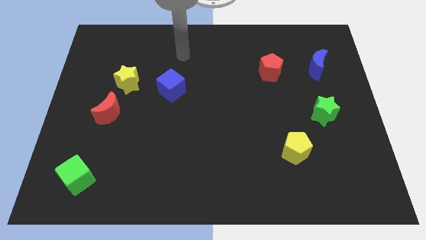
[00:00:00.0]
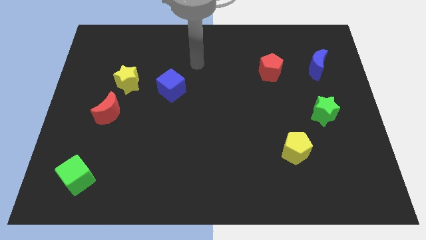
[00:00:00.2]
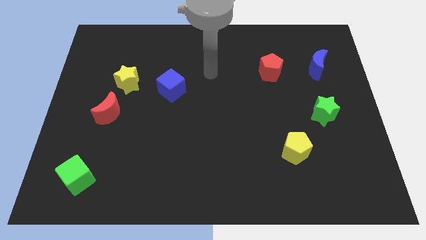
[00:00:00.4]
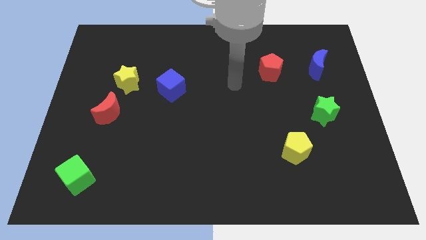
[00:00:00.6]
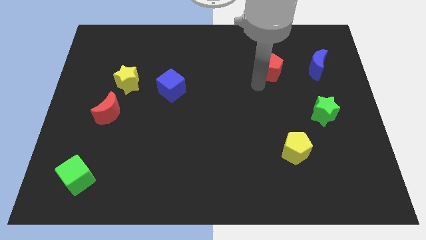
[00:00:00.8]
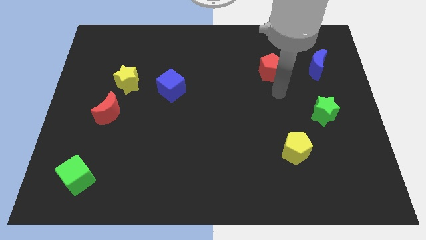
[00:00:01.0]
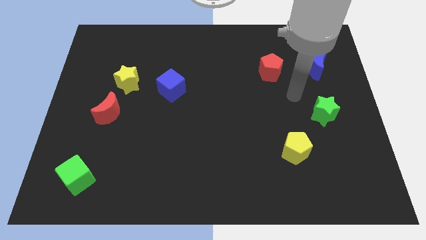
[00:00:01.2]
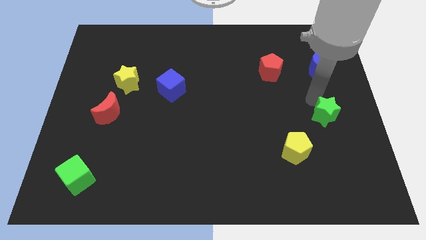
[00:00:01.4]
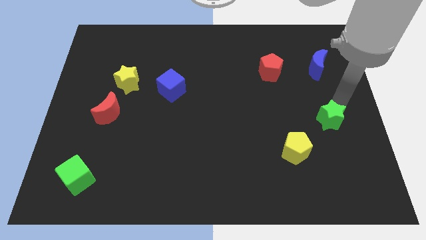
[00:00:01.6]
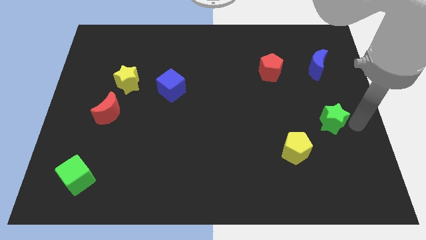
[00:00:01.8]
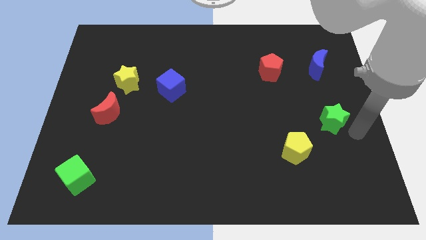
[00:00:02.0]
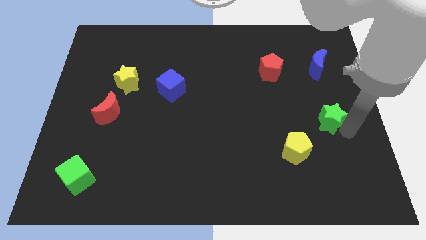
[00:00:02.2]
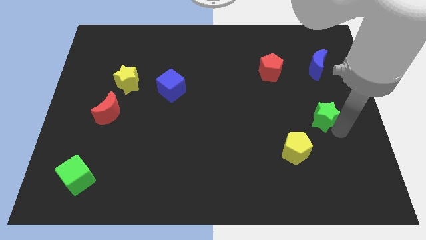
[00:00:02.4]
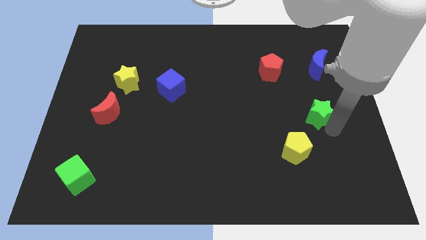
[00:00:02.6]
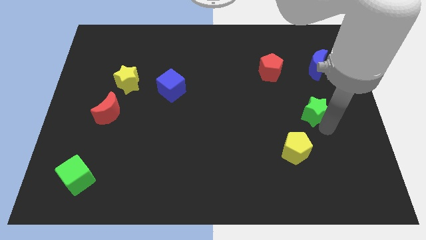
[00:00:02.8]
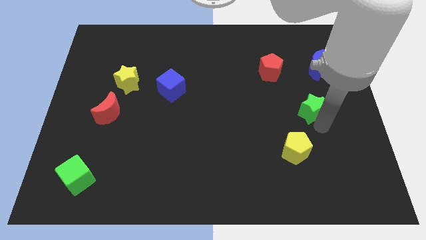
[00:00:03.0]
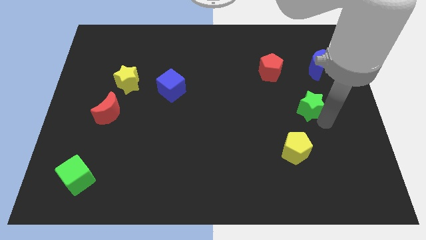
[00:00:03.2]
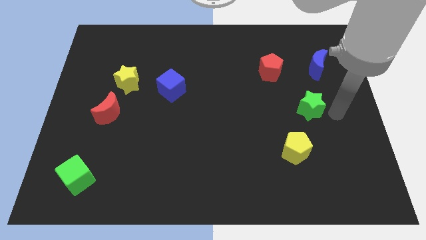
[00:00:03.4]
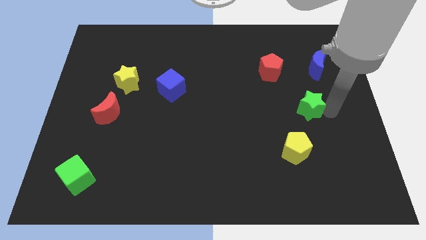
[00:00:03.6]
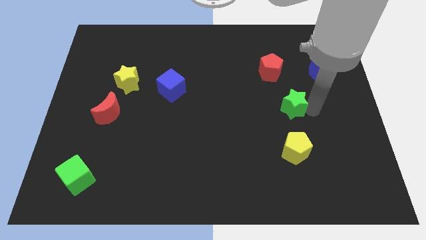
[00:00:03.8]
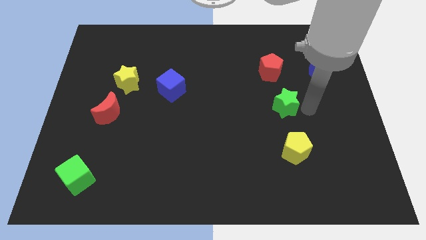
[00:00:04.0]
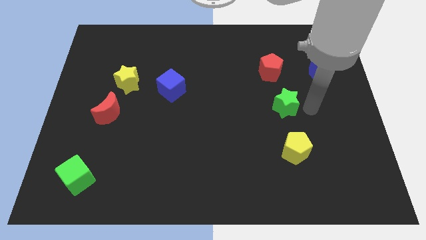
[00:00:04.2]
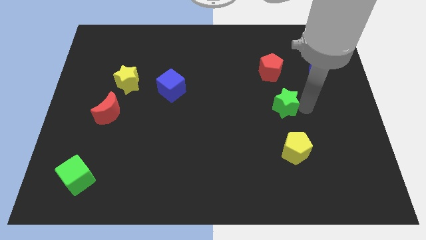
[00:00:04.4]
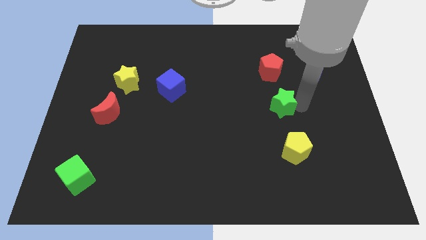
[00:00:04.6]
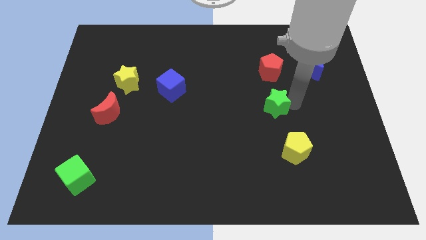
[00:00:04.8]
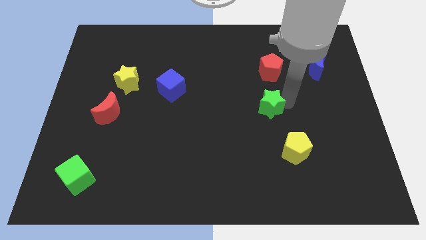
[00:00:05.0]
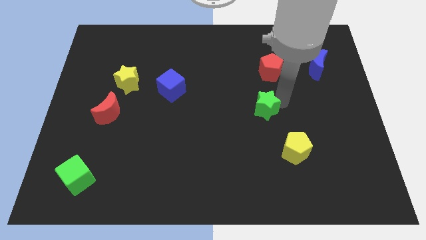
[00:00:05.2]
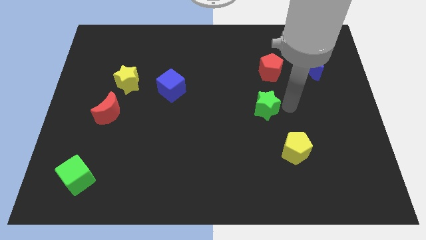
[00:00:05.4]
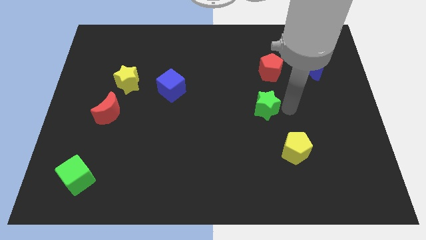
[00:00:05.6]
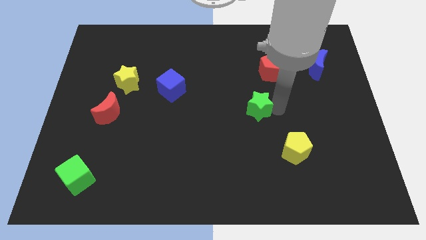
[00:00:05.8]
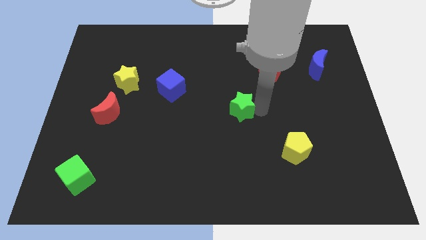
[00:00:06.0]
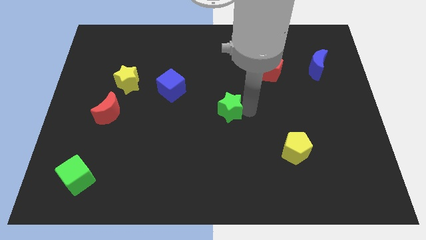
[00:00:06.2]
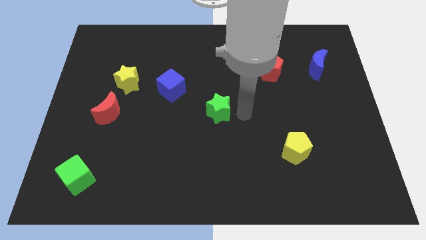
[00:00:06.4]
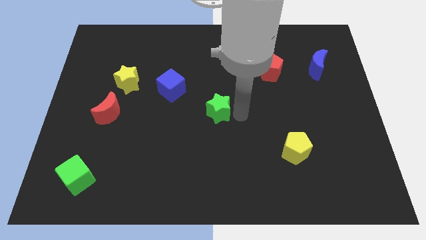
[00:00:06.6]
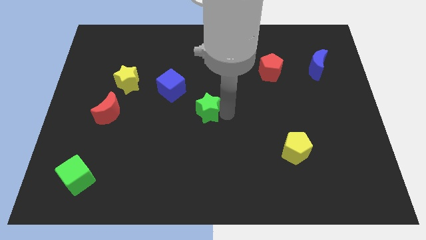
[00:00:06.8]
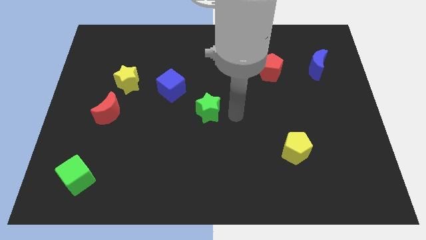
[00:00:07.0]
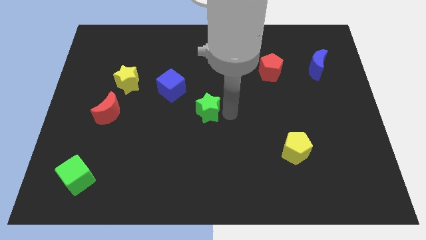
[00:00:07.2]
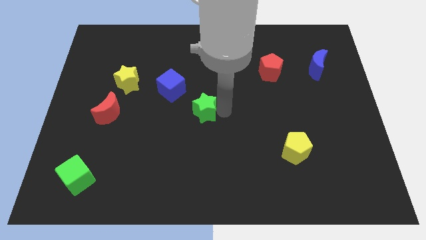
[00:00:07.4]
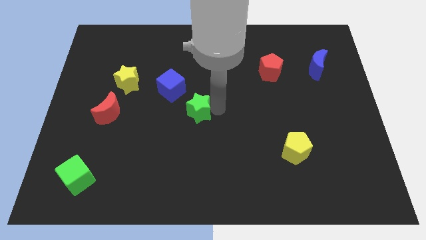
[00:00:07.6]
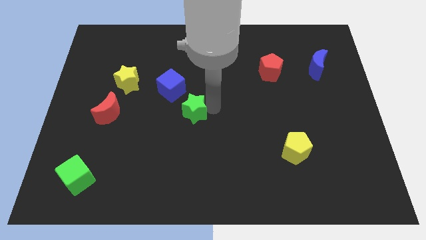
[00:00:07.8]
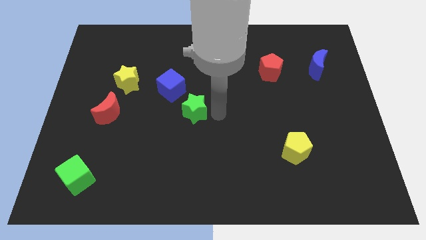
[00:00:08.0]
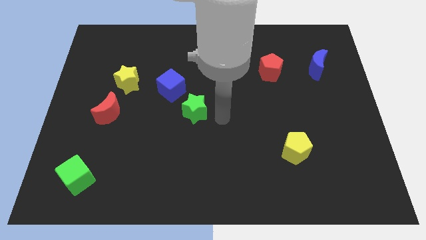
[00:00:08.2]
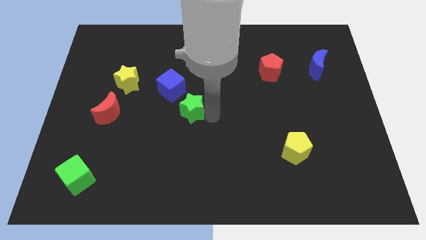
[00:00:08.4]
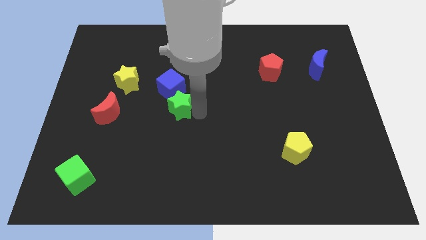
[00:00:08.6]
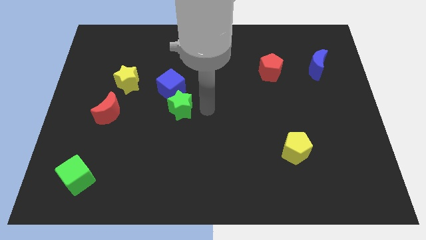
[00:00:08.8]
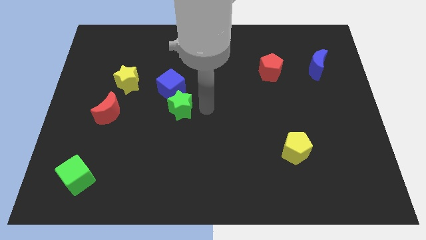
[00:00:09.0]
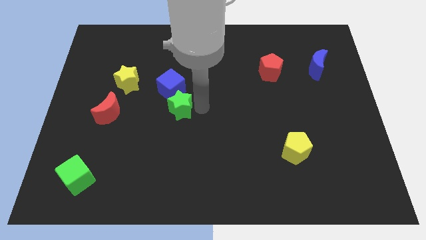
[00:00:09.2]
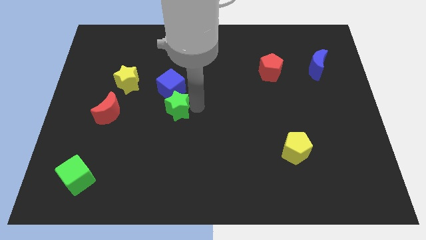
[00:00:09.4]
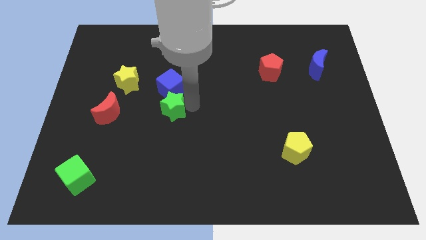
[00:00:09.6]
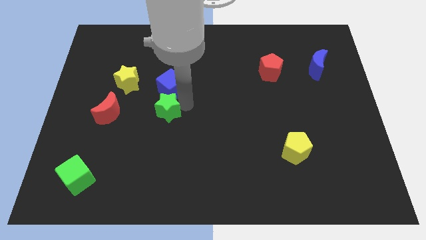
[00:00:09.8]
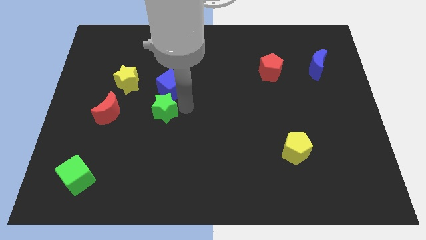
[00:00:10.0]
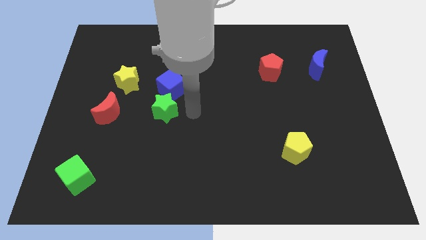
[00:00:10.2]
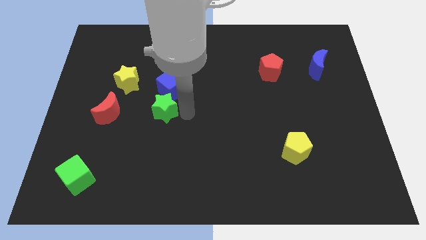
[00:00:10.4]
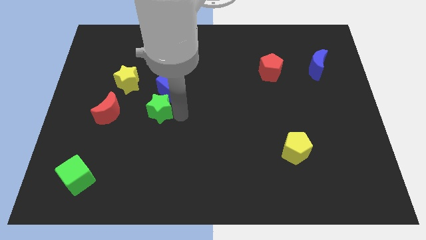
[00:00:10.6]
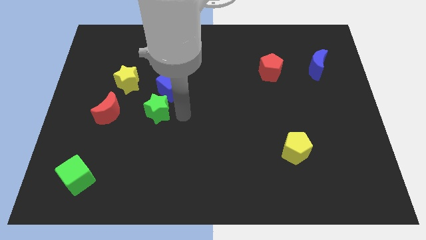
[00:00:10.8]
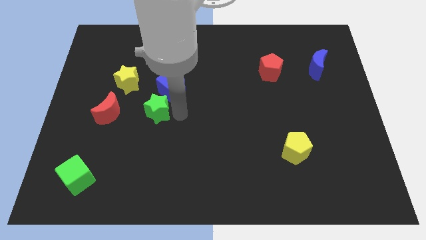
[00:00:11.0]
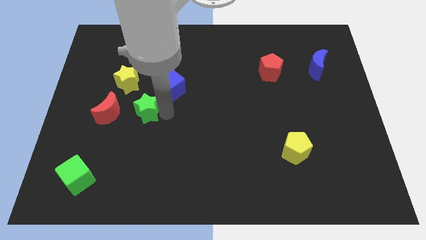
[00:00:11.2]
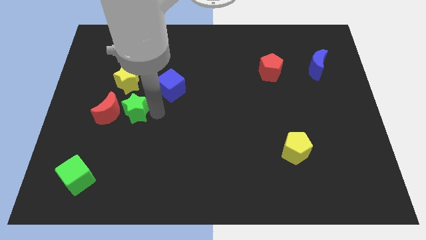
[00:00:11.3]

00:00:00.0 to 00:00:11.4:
slide the green star to the red moon

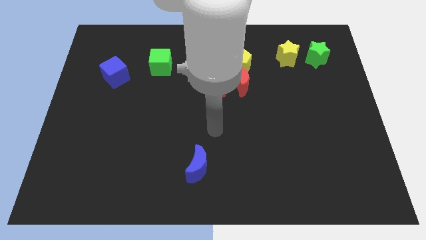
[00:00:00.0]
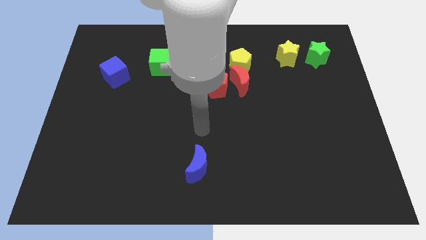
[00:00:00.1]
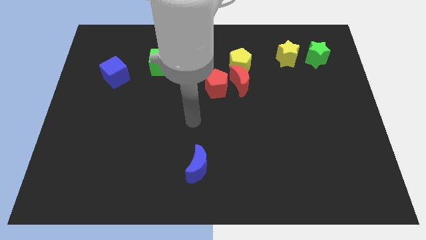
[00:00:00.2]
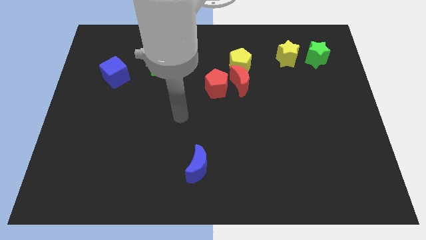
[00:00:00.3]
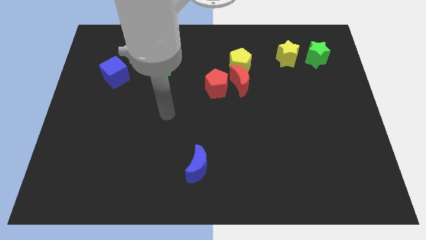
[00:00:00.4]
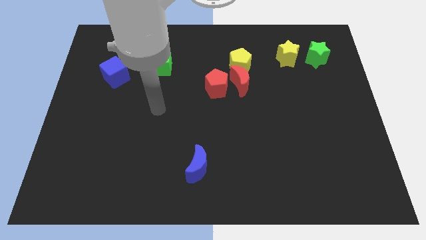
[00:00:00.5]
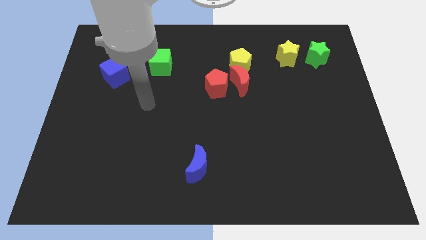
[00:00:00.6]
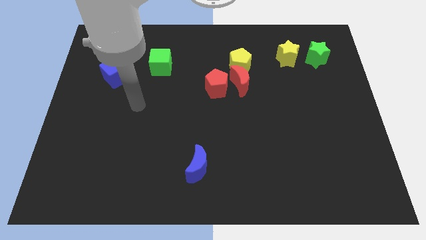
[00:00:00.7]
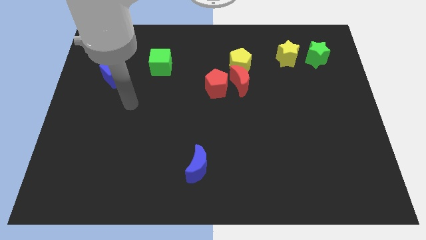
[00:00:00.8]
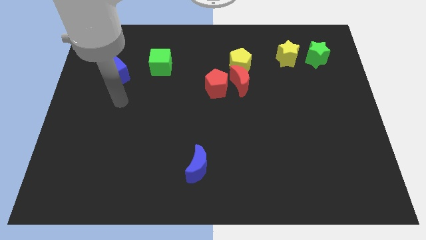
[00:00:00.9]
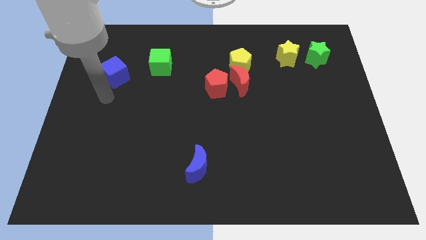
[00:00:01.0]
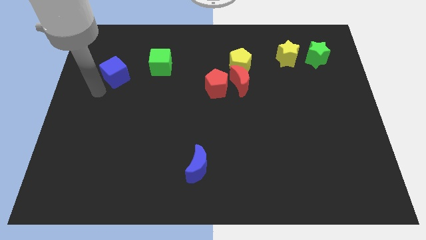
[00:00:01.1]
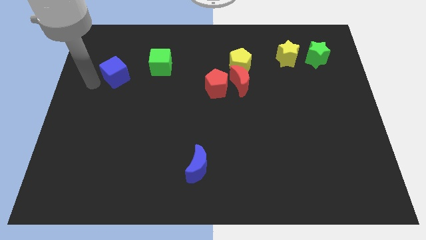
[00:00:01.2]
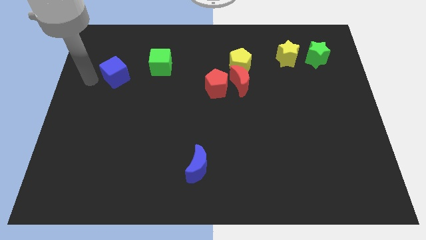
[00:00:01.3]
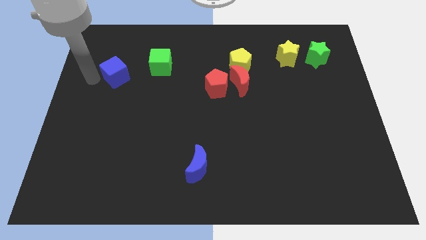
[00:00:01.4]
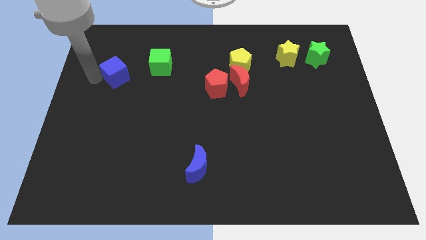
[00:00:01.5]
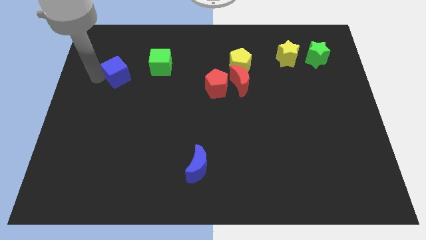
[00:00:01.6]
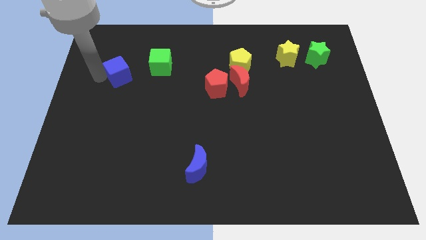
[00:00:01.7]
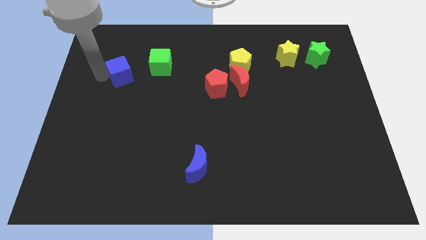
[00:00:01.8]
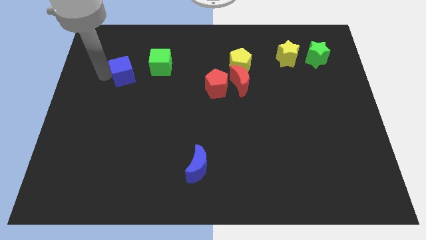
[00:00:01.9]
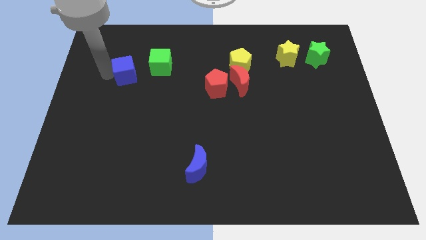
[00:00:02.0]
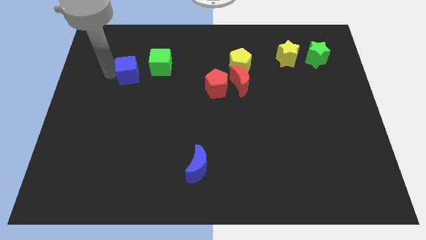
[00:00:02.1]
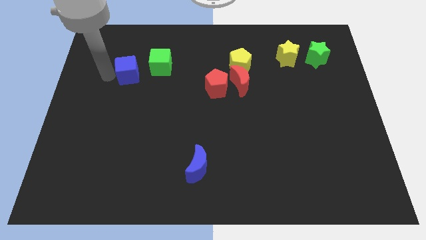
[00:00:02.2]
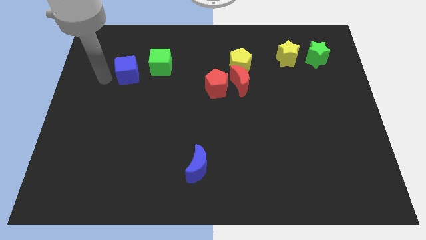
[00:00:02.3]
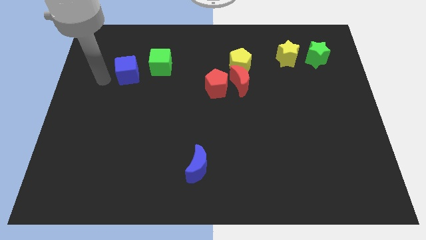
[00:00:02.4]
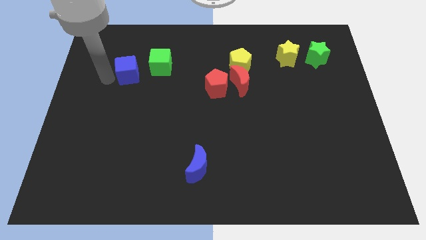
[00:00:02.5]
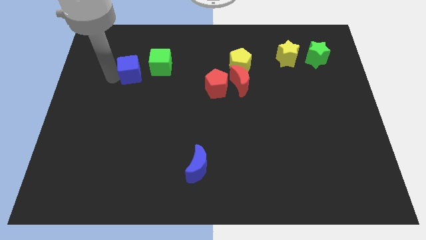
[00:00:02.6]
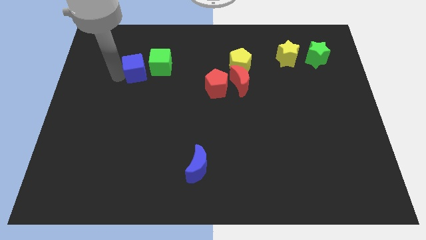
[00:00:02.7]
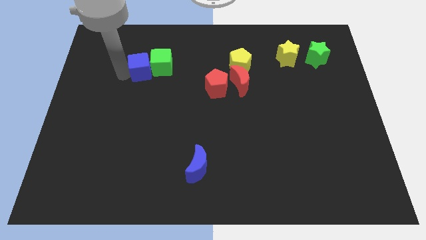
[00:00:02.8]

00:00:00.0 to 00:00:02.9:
push the blue cube next to the green cube
